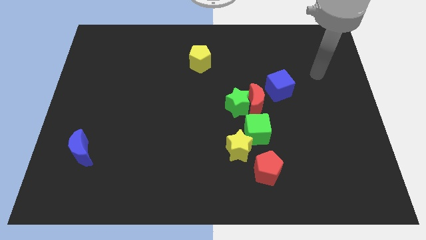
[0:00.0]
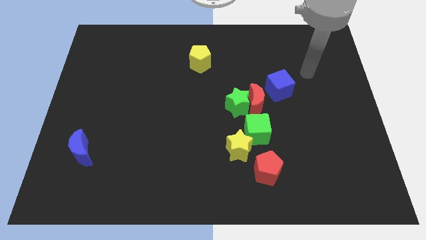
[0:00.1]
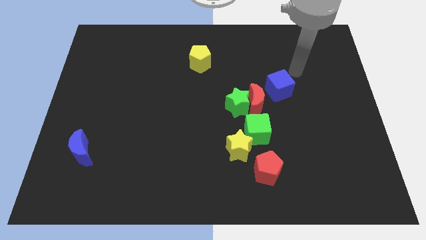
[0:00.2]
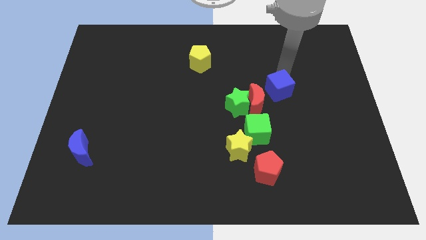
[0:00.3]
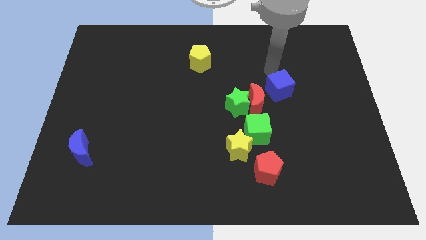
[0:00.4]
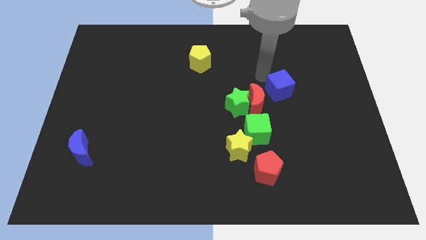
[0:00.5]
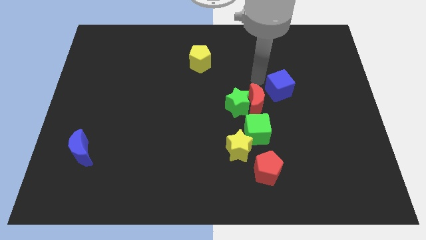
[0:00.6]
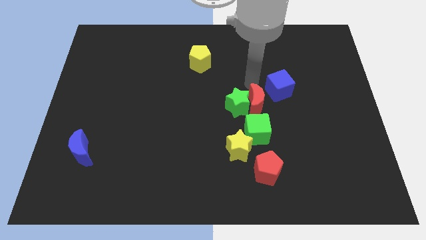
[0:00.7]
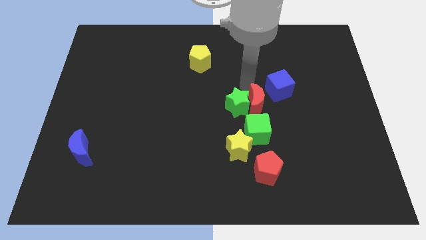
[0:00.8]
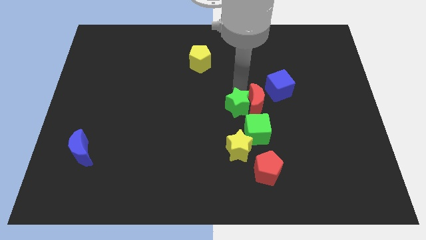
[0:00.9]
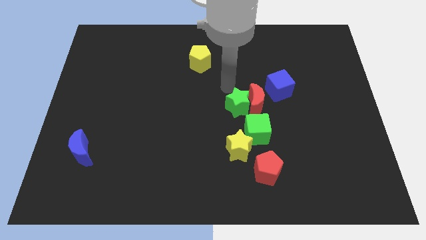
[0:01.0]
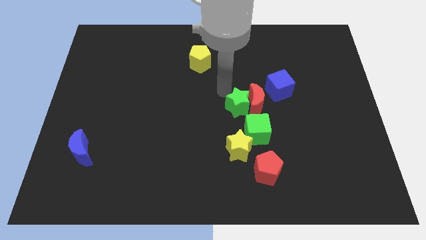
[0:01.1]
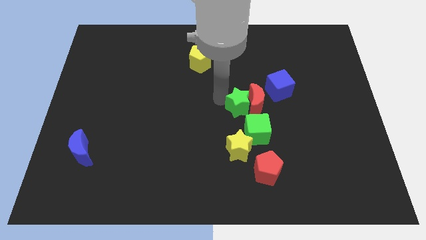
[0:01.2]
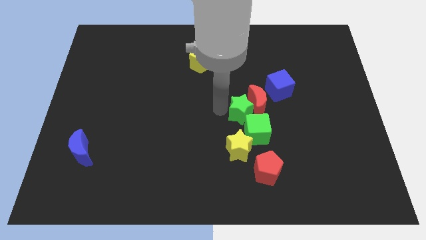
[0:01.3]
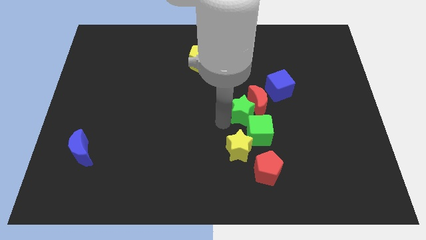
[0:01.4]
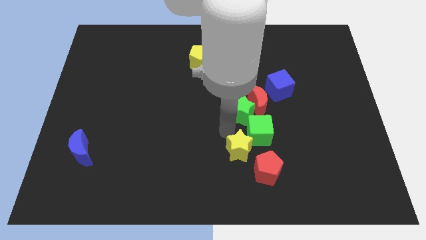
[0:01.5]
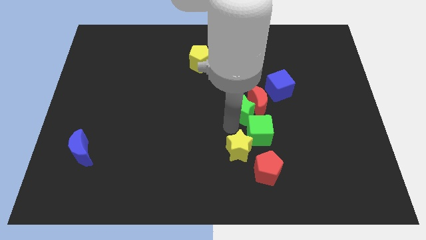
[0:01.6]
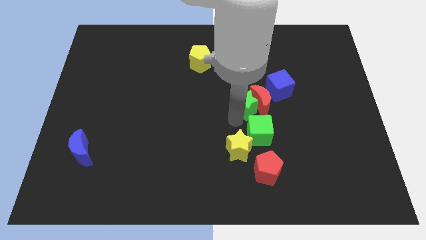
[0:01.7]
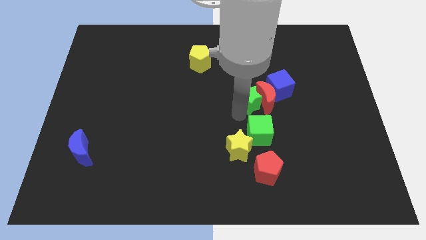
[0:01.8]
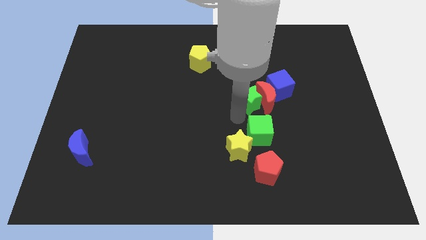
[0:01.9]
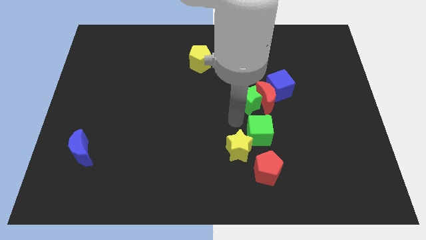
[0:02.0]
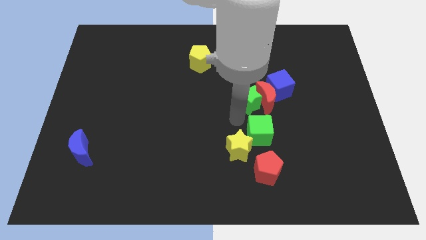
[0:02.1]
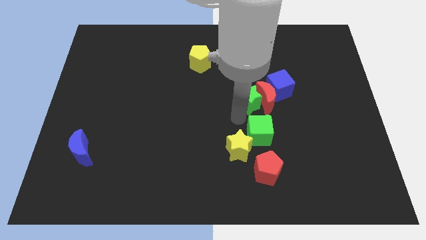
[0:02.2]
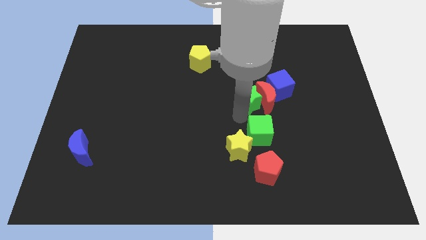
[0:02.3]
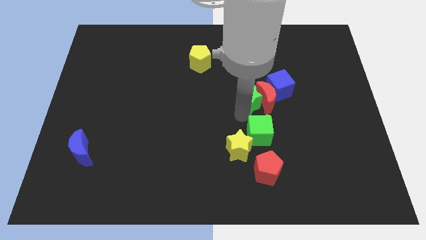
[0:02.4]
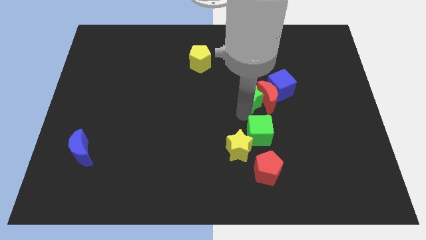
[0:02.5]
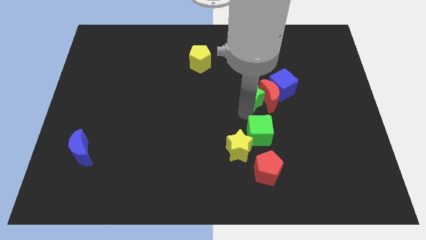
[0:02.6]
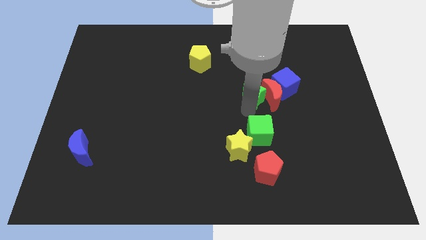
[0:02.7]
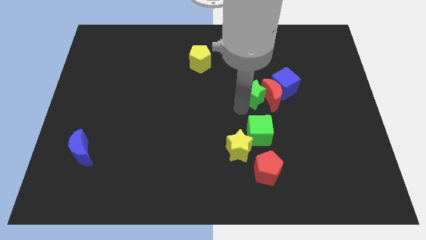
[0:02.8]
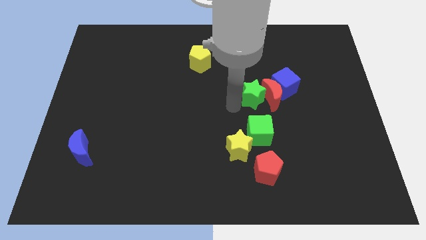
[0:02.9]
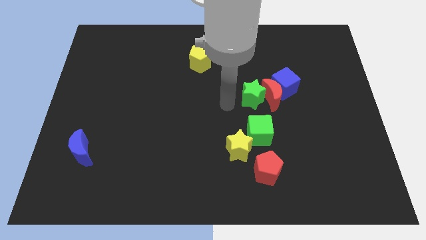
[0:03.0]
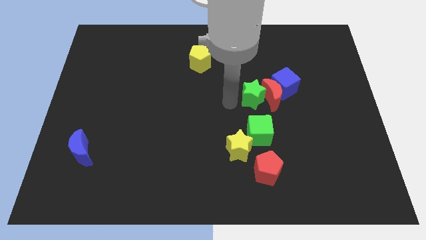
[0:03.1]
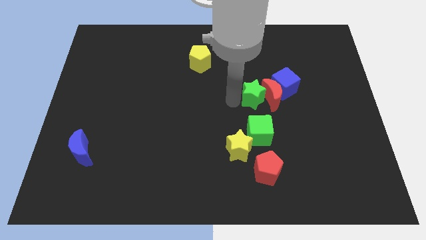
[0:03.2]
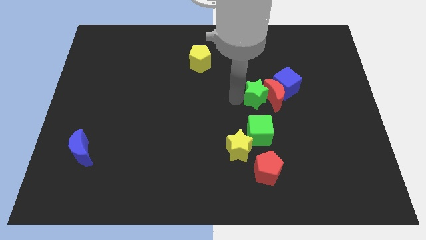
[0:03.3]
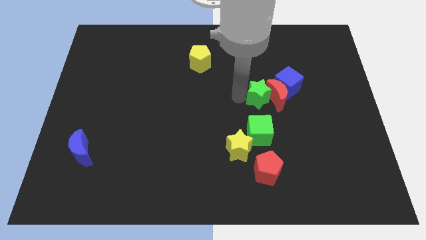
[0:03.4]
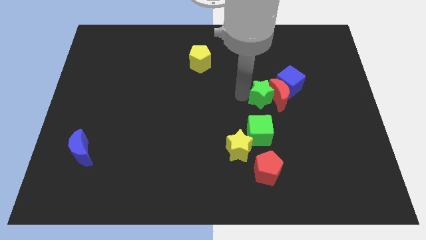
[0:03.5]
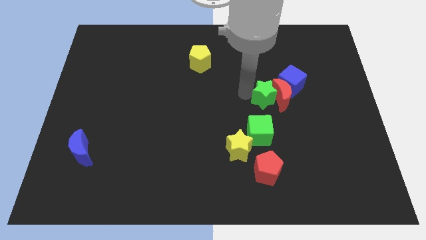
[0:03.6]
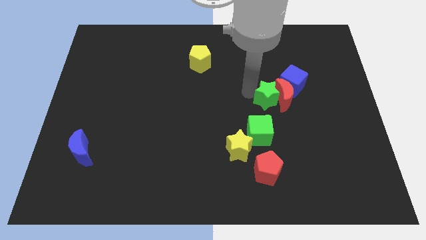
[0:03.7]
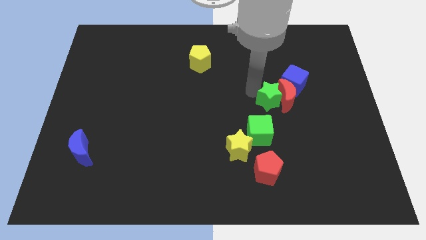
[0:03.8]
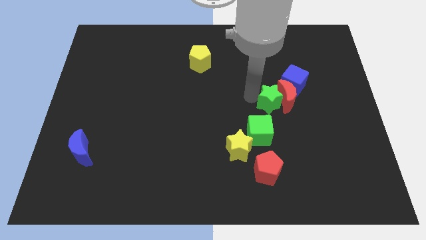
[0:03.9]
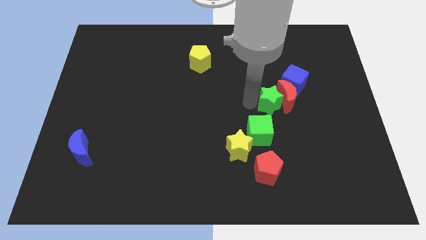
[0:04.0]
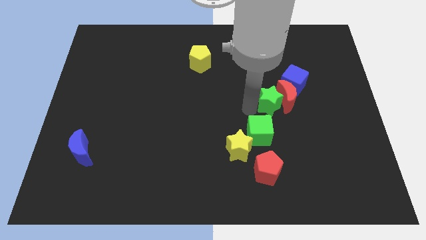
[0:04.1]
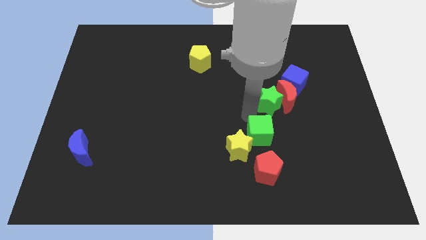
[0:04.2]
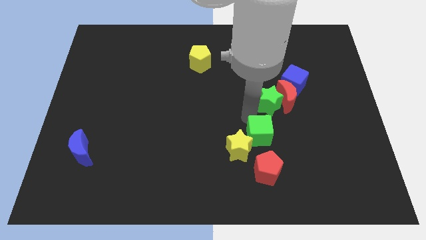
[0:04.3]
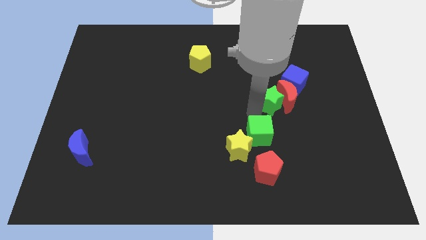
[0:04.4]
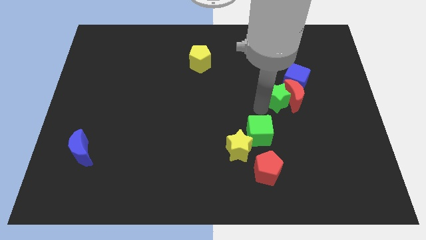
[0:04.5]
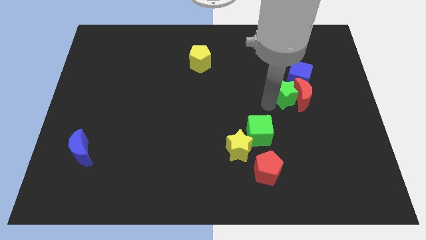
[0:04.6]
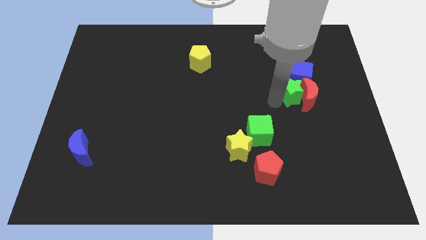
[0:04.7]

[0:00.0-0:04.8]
move the green star next to the blue cube

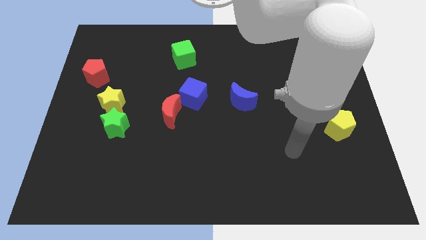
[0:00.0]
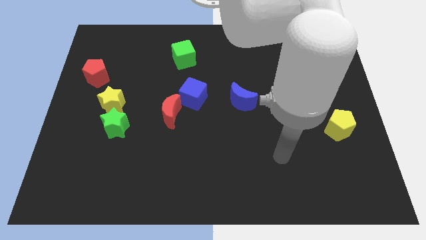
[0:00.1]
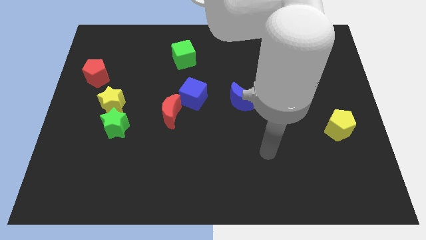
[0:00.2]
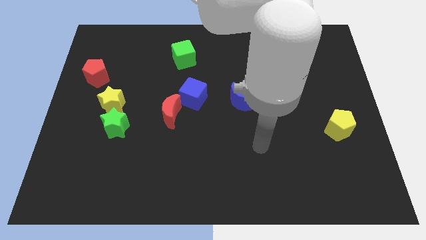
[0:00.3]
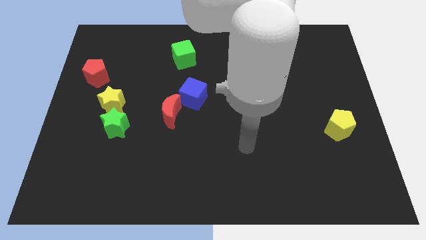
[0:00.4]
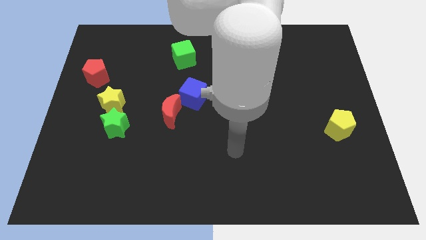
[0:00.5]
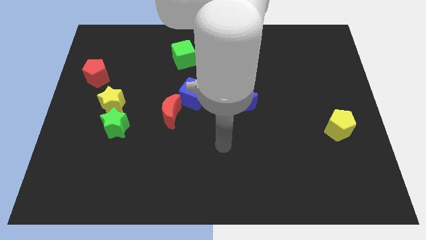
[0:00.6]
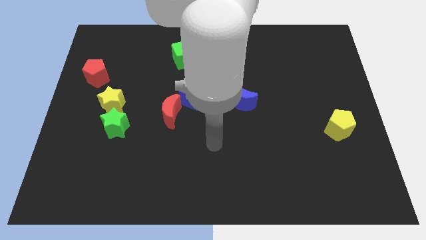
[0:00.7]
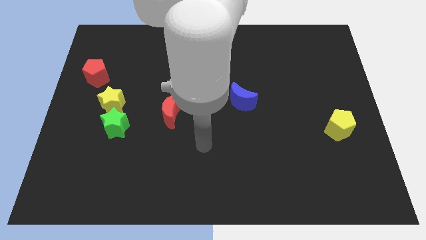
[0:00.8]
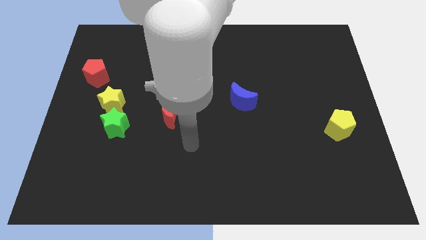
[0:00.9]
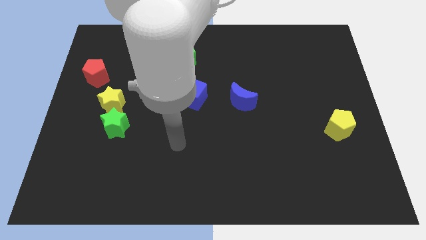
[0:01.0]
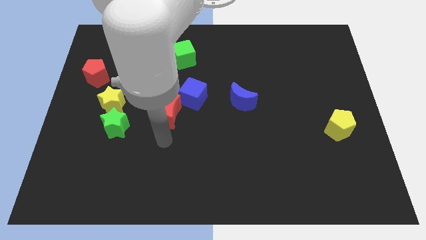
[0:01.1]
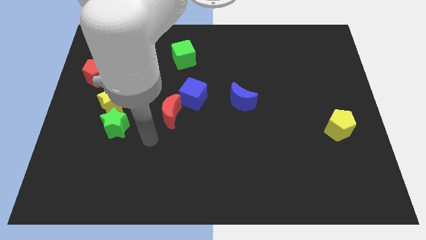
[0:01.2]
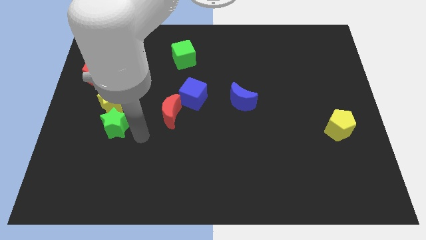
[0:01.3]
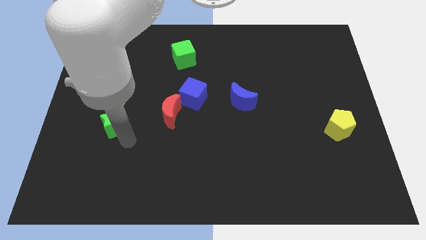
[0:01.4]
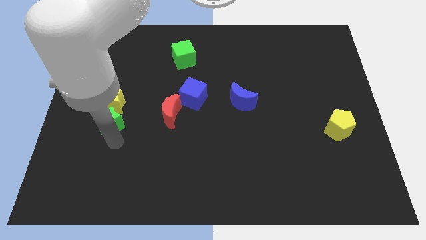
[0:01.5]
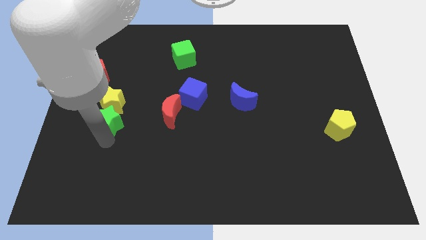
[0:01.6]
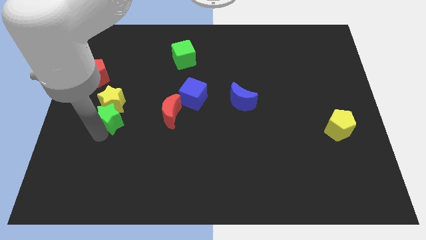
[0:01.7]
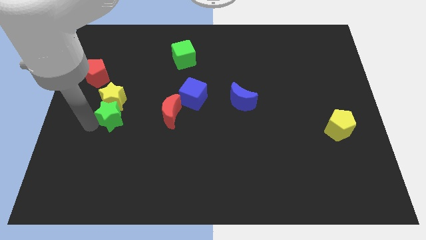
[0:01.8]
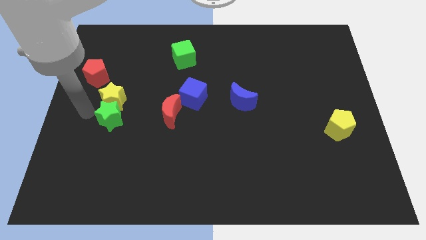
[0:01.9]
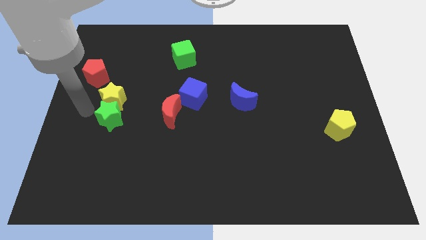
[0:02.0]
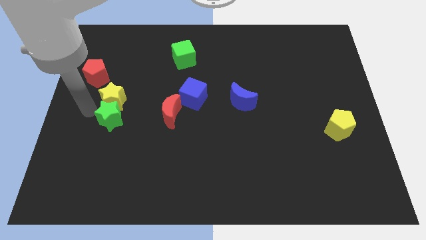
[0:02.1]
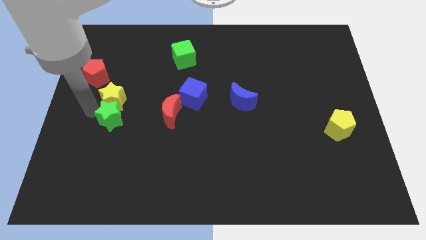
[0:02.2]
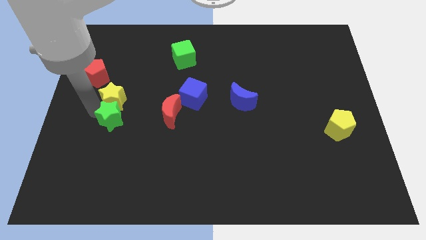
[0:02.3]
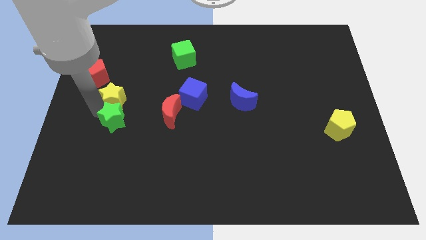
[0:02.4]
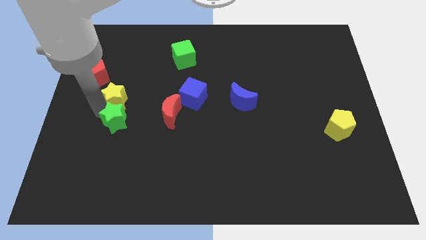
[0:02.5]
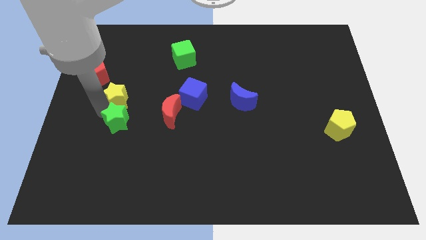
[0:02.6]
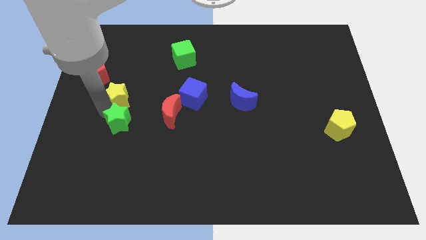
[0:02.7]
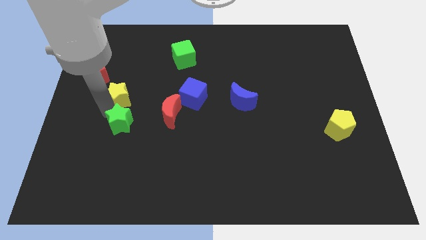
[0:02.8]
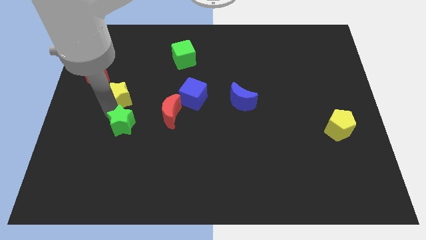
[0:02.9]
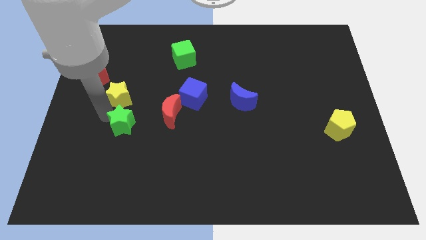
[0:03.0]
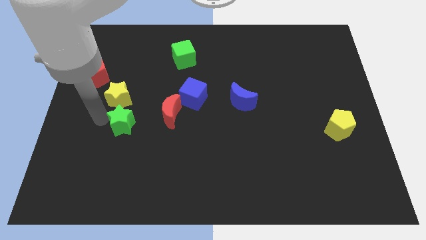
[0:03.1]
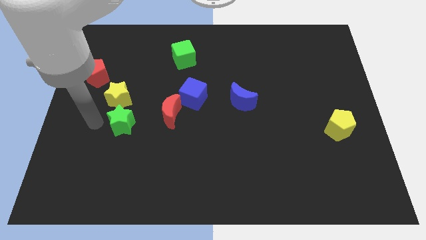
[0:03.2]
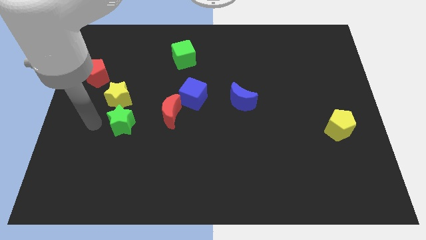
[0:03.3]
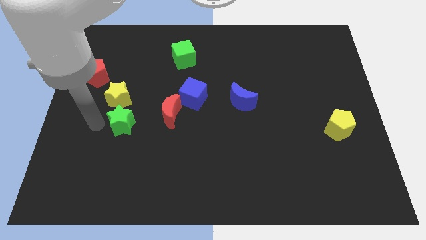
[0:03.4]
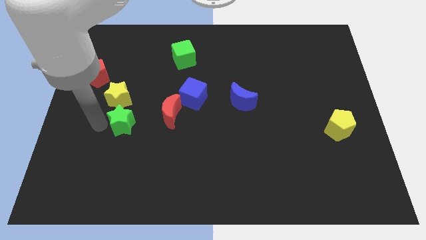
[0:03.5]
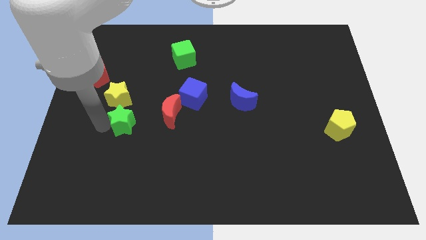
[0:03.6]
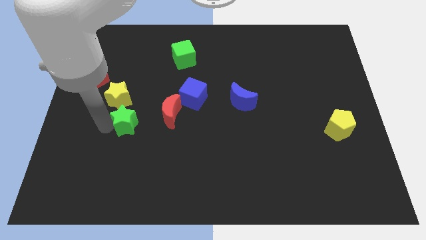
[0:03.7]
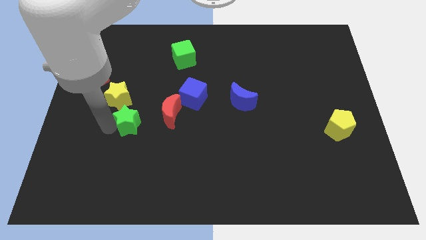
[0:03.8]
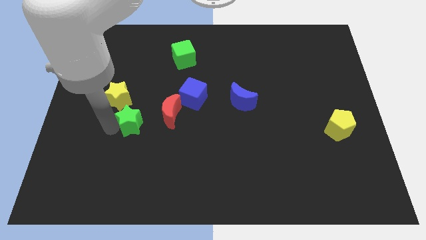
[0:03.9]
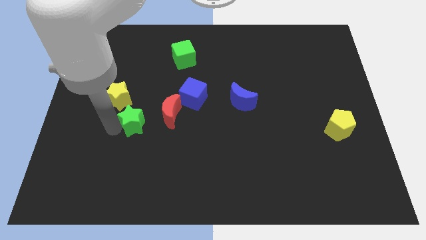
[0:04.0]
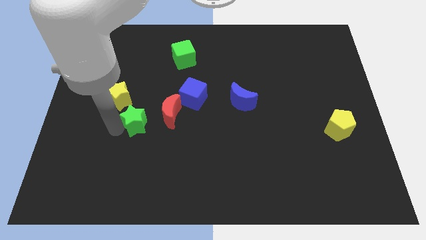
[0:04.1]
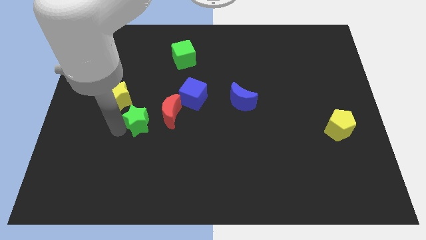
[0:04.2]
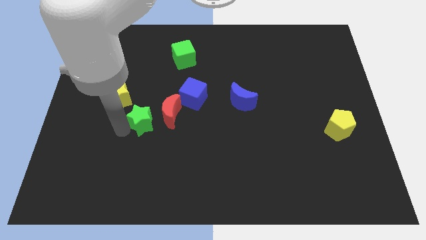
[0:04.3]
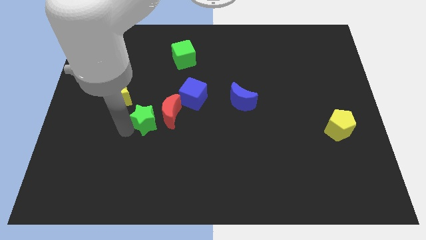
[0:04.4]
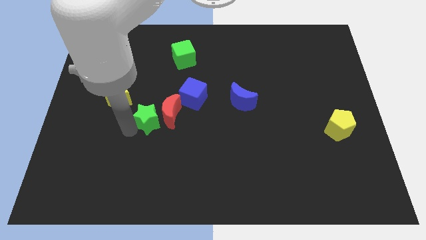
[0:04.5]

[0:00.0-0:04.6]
move the green star close to the red moon
